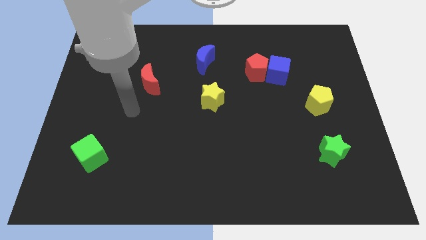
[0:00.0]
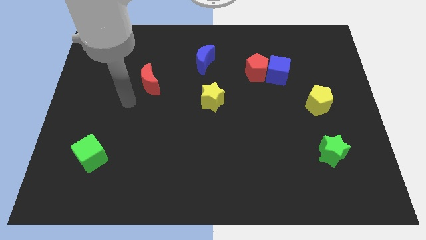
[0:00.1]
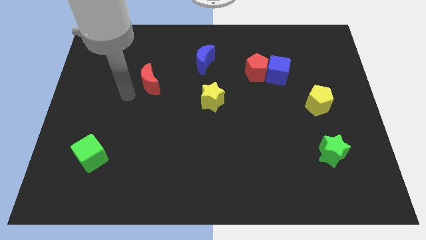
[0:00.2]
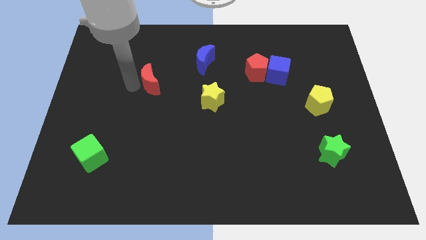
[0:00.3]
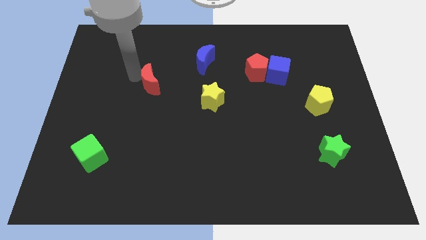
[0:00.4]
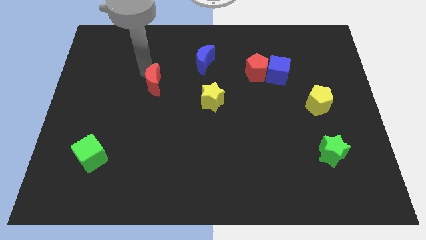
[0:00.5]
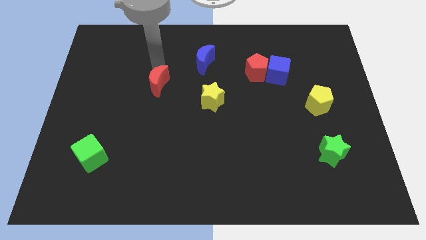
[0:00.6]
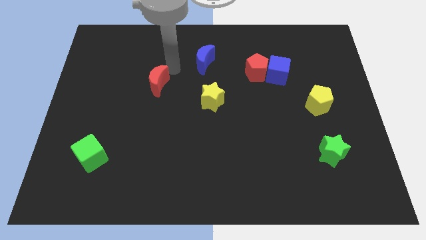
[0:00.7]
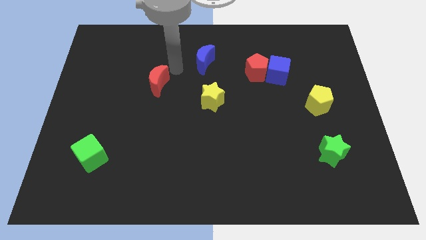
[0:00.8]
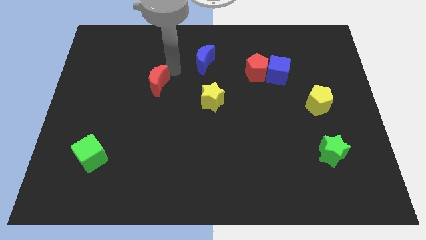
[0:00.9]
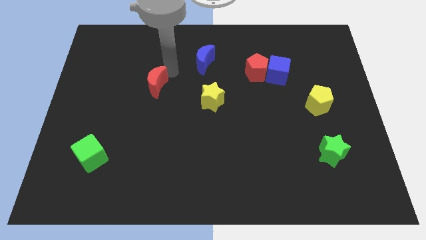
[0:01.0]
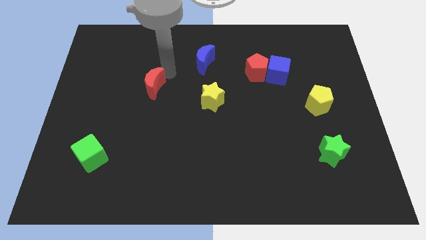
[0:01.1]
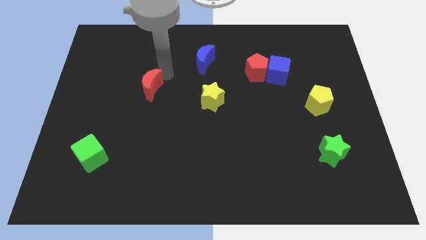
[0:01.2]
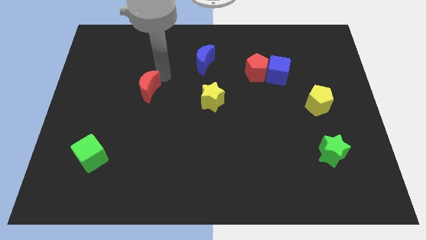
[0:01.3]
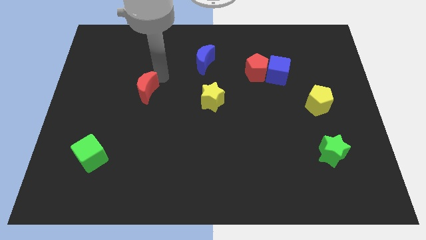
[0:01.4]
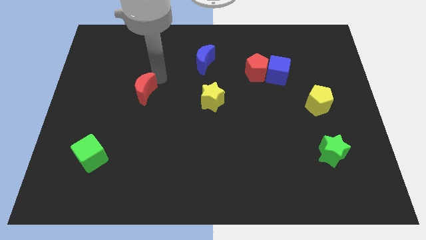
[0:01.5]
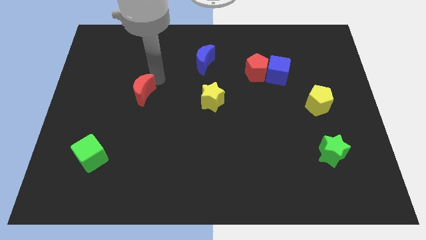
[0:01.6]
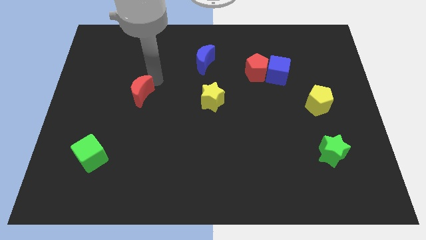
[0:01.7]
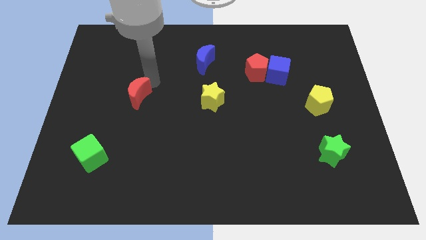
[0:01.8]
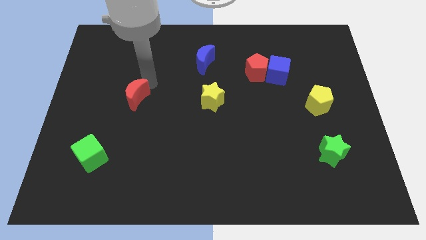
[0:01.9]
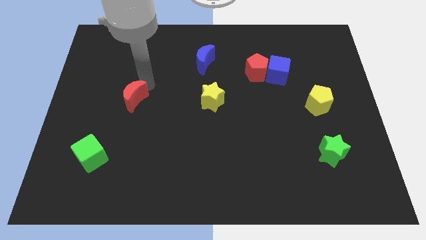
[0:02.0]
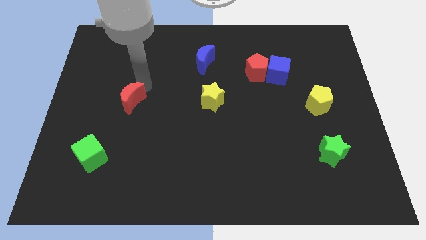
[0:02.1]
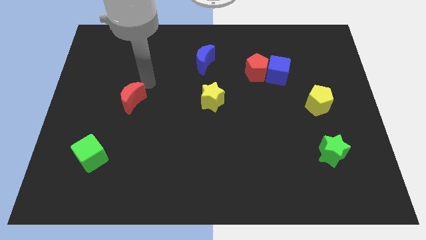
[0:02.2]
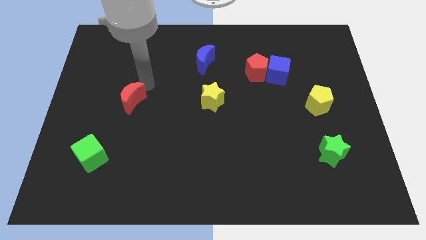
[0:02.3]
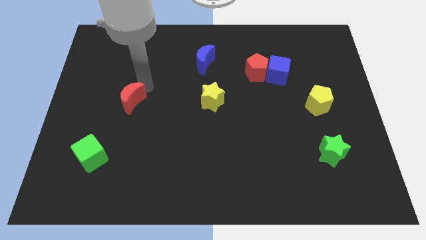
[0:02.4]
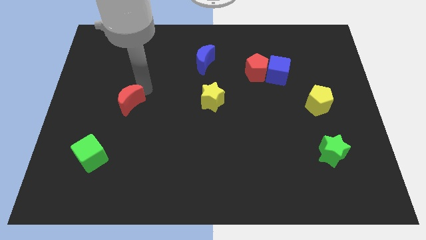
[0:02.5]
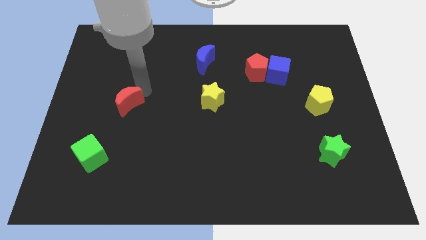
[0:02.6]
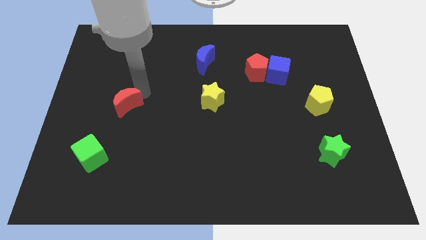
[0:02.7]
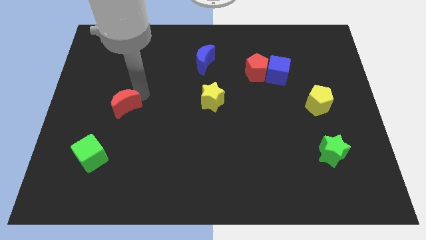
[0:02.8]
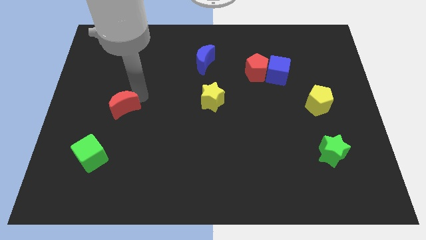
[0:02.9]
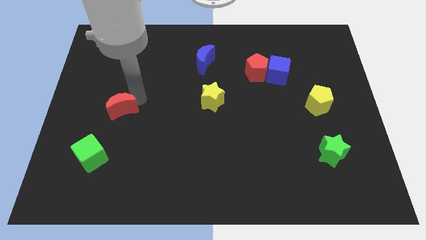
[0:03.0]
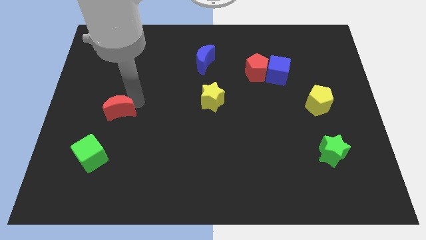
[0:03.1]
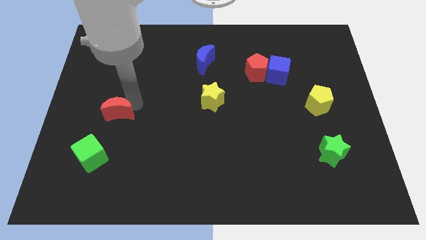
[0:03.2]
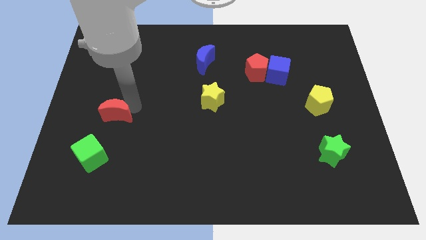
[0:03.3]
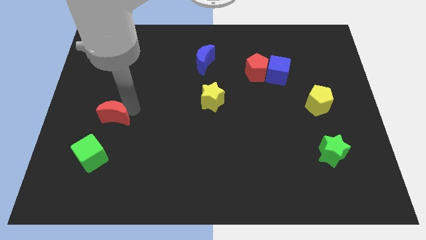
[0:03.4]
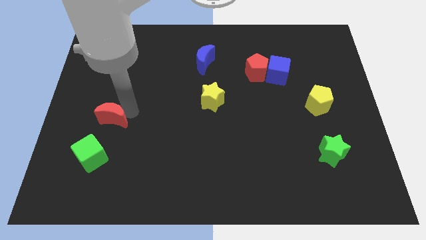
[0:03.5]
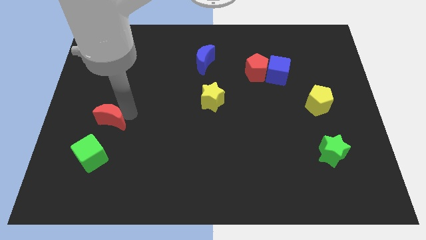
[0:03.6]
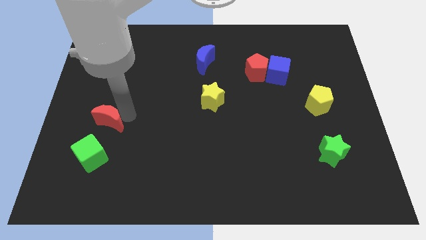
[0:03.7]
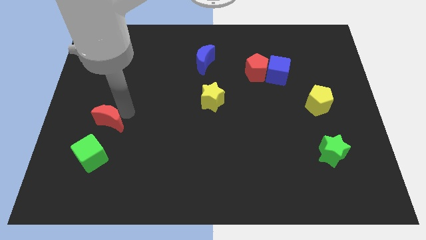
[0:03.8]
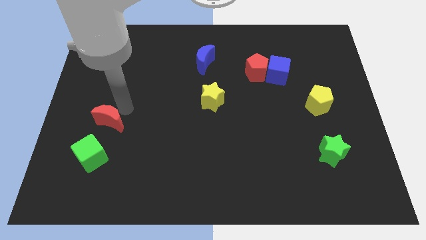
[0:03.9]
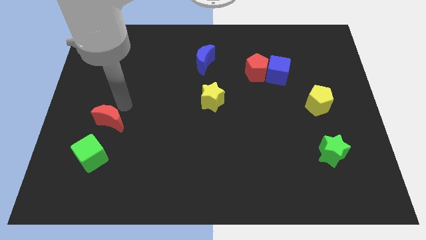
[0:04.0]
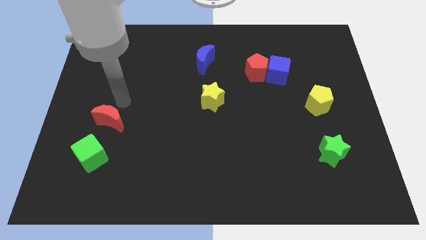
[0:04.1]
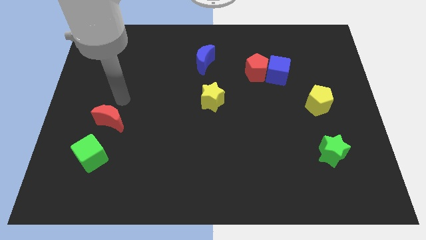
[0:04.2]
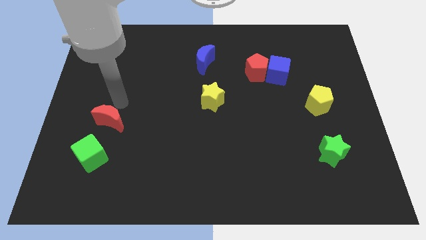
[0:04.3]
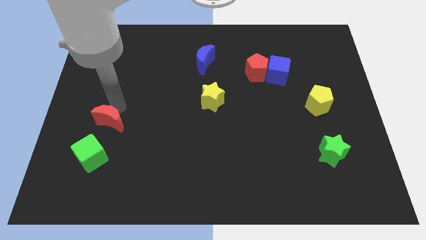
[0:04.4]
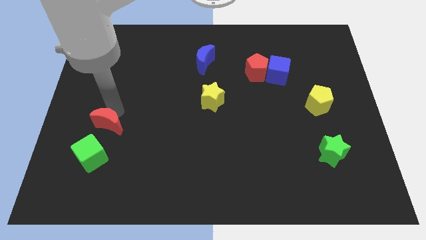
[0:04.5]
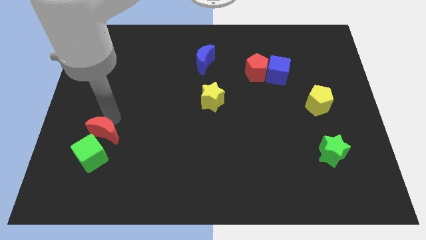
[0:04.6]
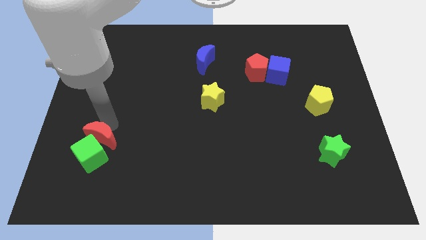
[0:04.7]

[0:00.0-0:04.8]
put the red moon to the green cube

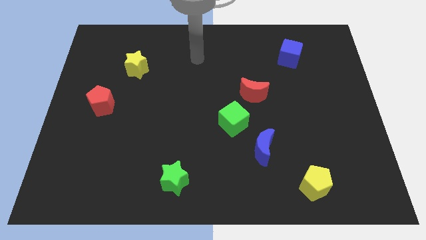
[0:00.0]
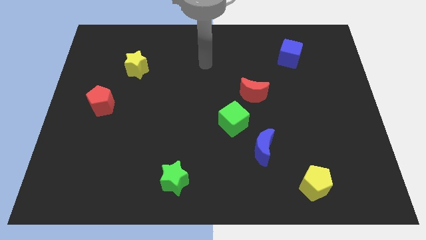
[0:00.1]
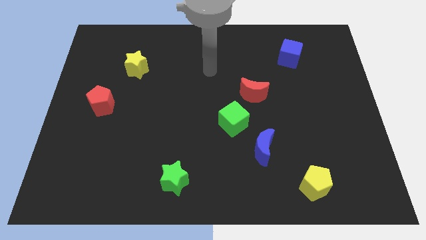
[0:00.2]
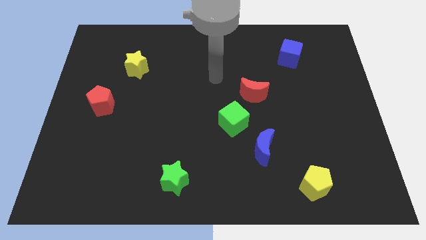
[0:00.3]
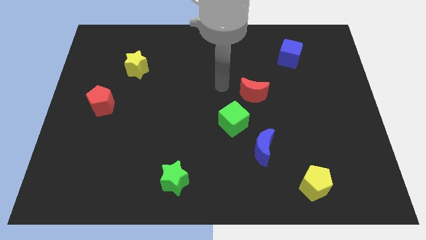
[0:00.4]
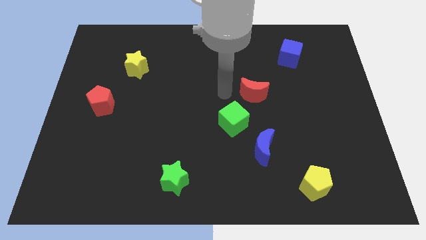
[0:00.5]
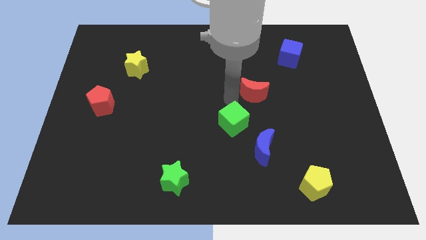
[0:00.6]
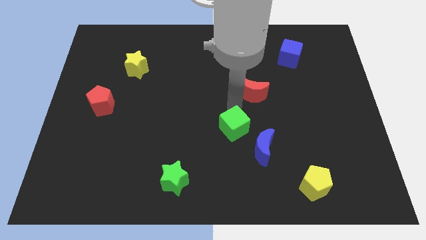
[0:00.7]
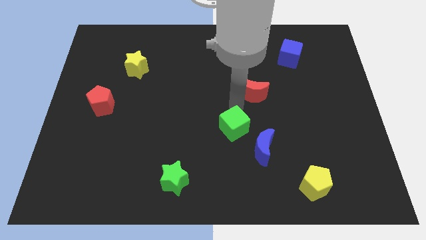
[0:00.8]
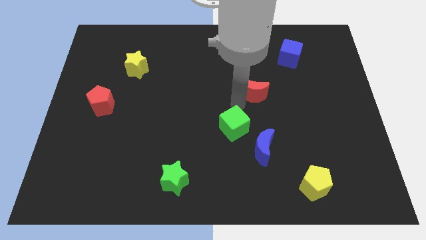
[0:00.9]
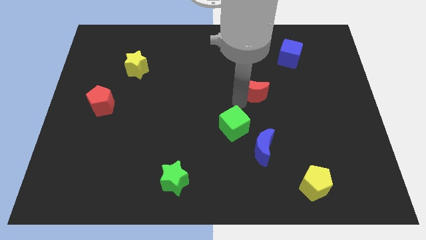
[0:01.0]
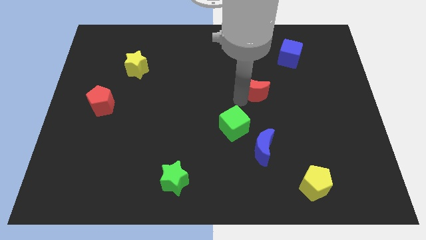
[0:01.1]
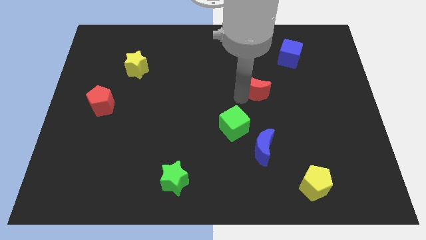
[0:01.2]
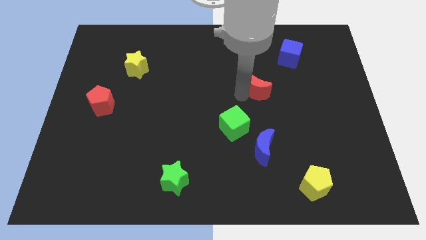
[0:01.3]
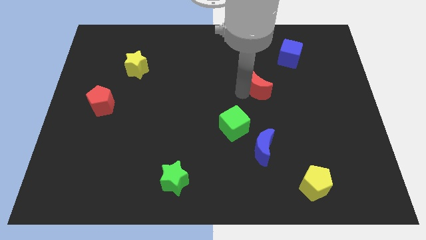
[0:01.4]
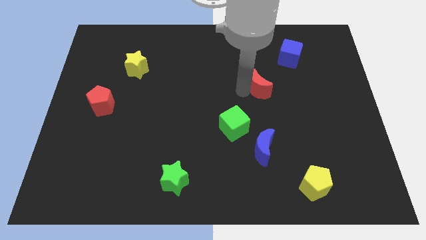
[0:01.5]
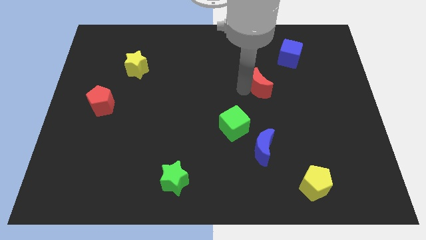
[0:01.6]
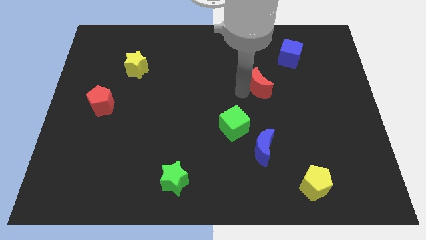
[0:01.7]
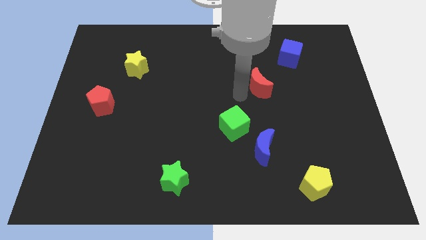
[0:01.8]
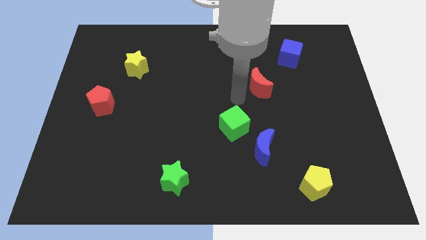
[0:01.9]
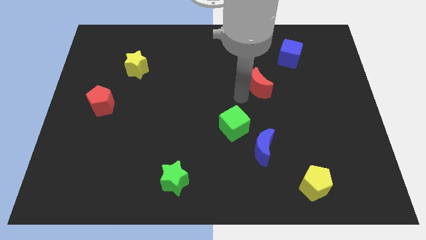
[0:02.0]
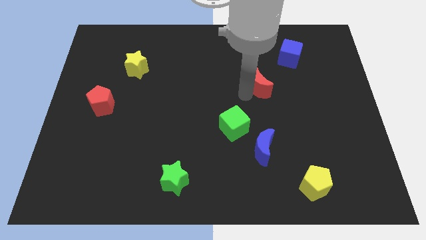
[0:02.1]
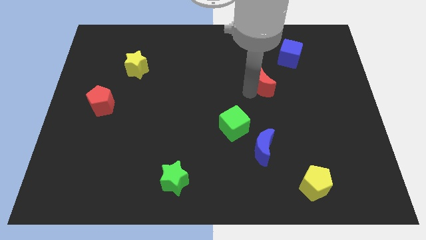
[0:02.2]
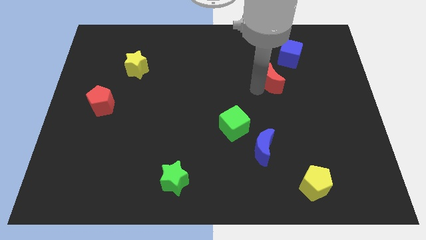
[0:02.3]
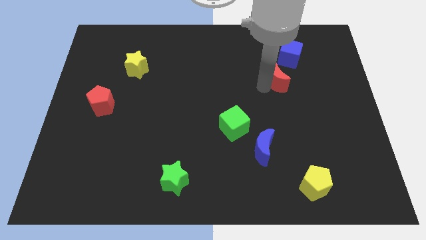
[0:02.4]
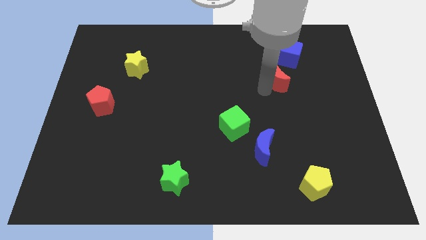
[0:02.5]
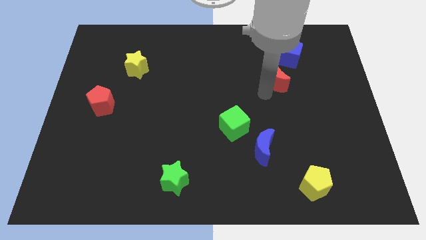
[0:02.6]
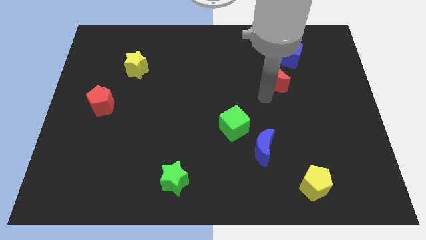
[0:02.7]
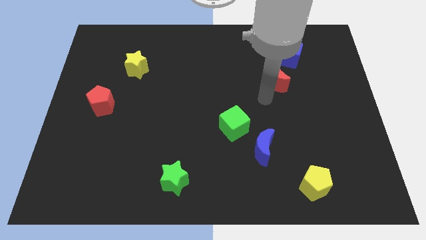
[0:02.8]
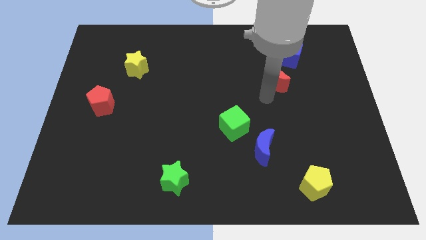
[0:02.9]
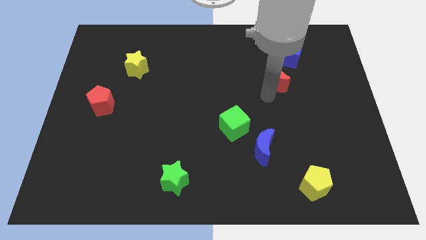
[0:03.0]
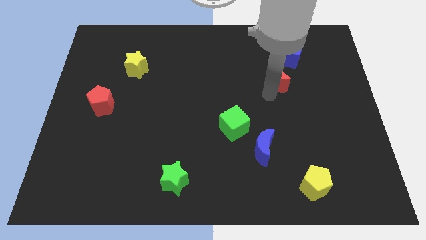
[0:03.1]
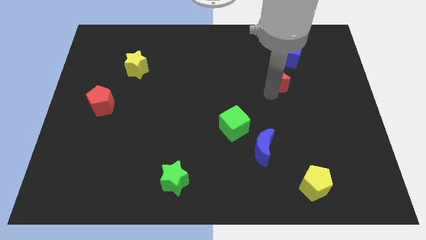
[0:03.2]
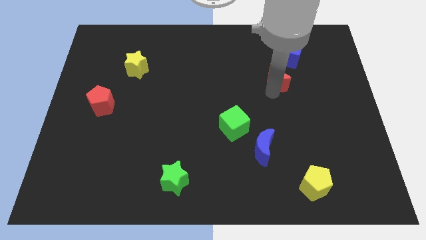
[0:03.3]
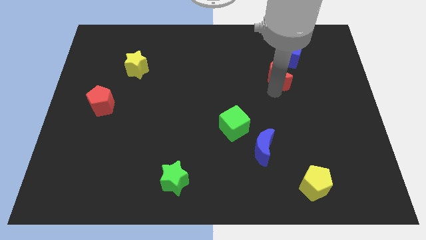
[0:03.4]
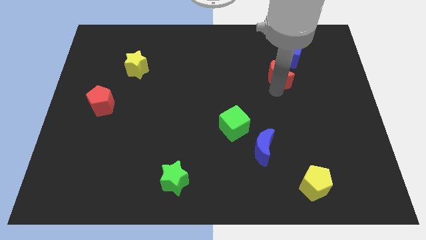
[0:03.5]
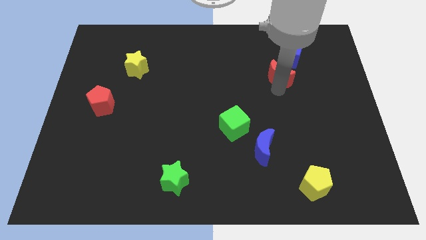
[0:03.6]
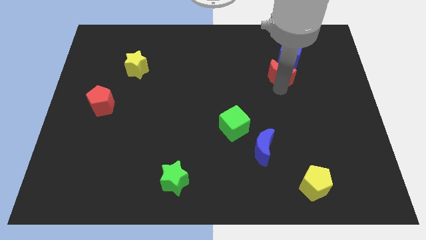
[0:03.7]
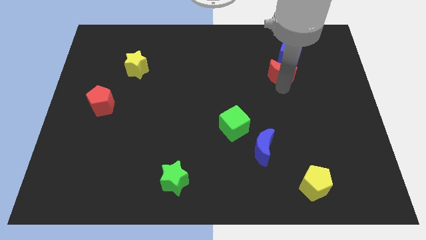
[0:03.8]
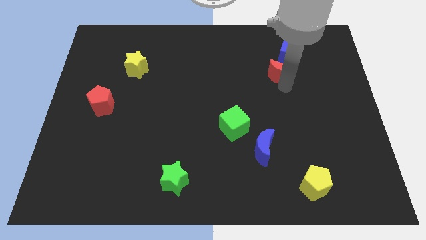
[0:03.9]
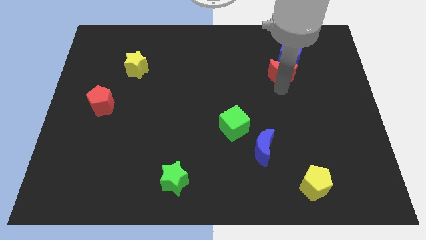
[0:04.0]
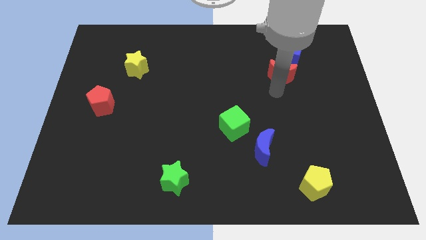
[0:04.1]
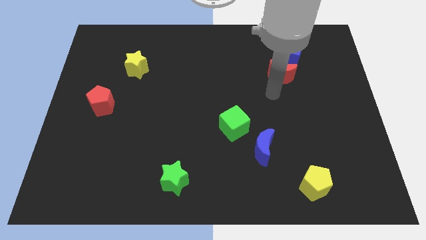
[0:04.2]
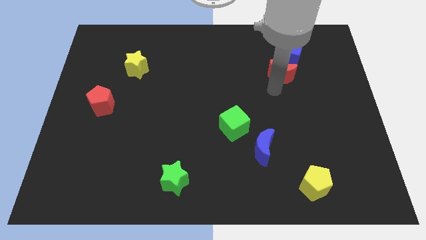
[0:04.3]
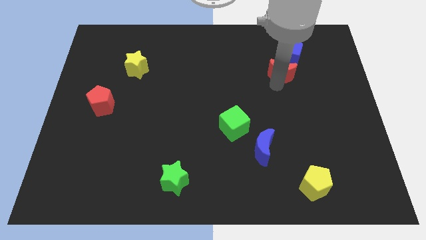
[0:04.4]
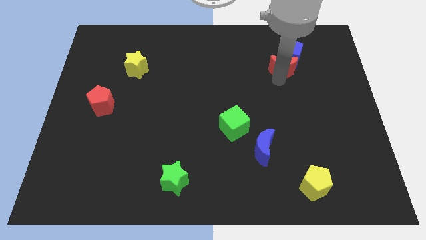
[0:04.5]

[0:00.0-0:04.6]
put the red moon towards the blue cube
